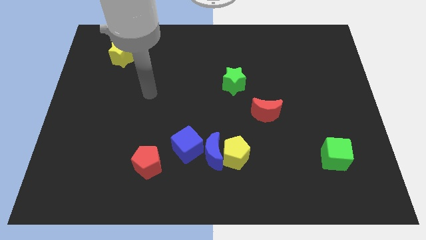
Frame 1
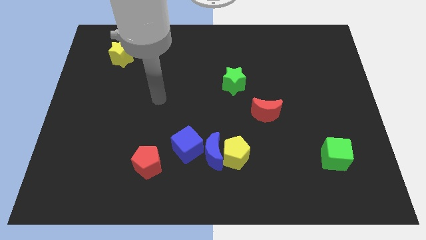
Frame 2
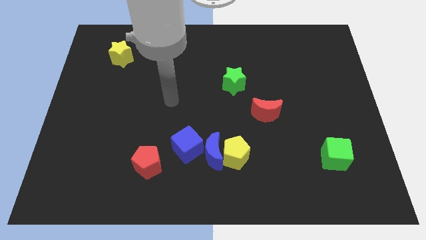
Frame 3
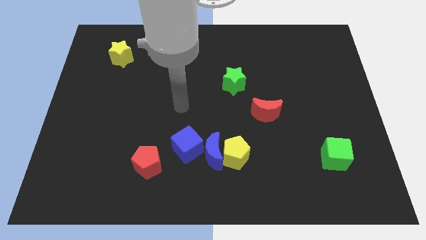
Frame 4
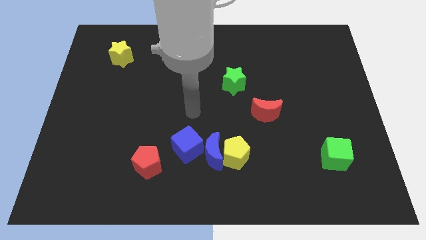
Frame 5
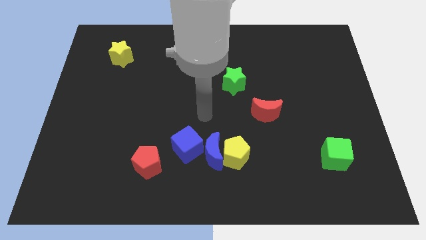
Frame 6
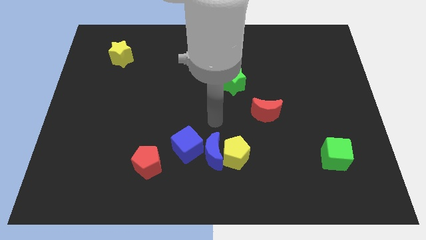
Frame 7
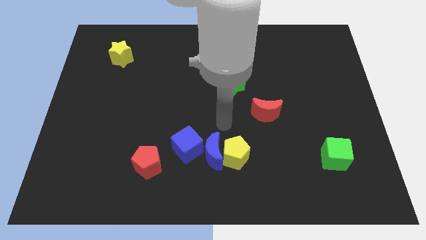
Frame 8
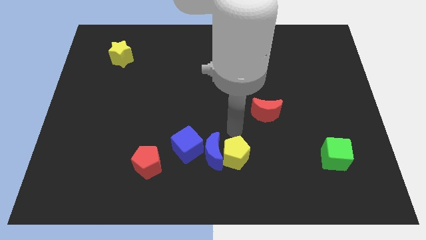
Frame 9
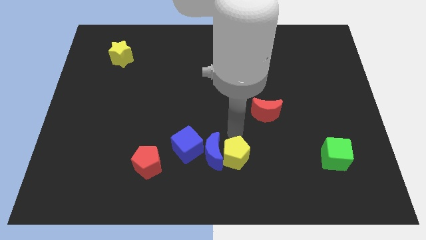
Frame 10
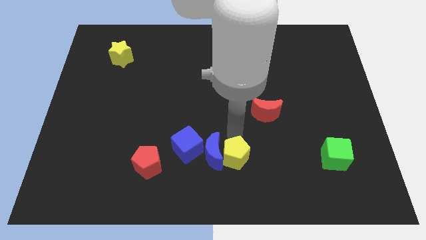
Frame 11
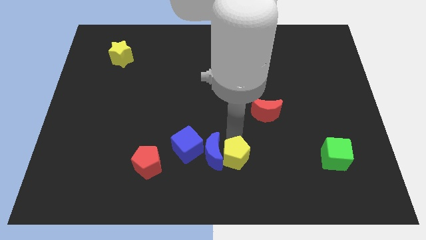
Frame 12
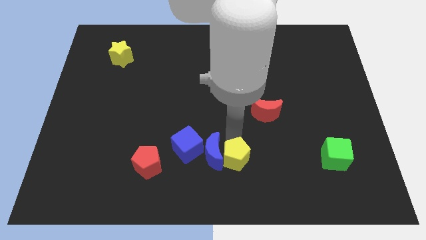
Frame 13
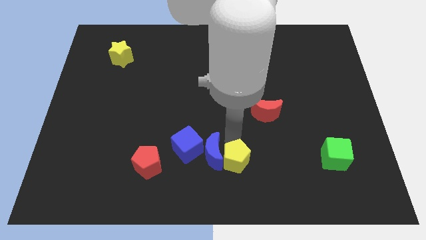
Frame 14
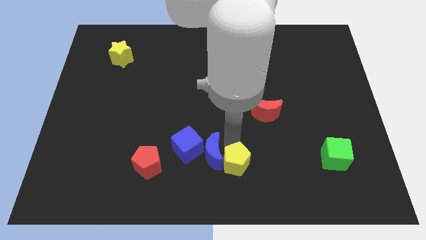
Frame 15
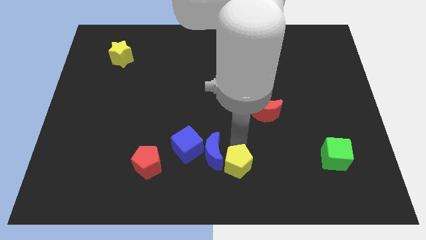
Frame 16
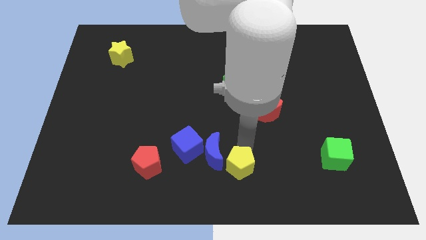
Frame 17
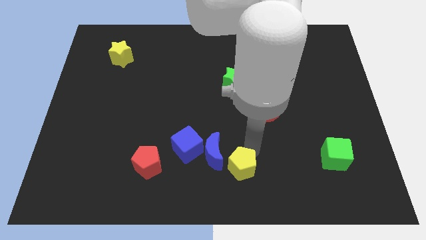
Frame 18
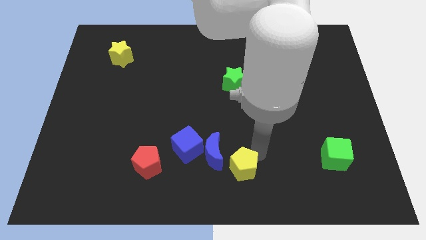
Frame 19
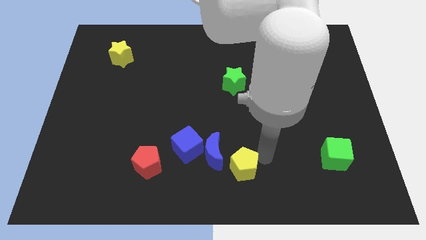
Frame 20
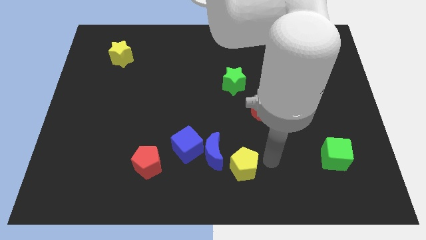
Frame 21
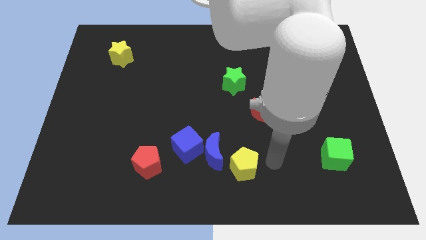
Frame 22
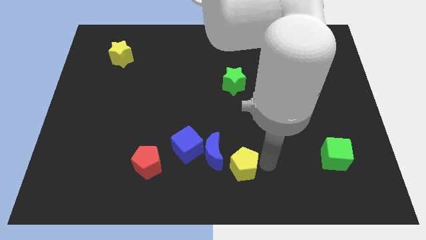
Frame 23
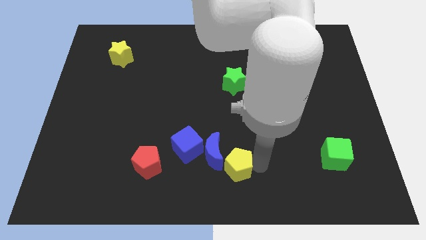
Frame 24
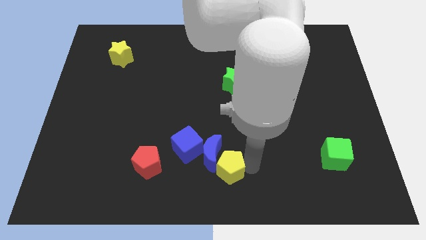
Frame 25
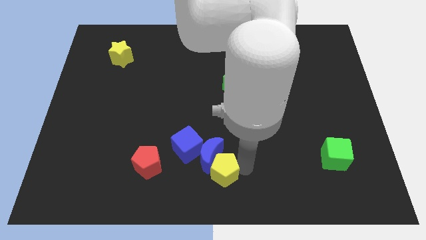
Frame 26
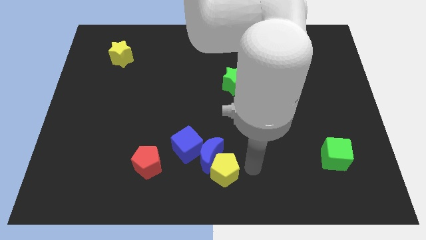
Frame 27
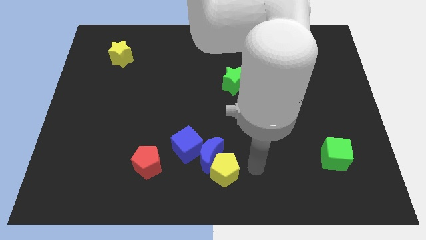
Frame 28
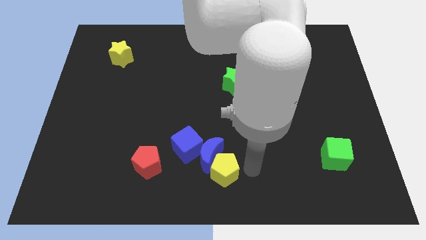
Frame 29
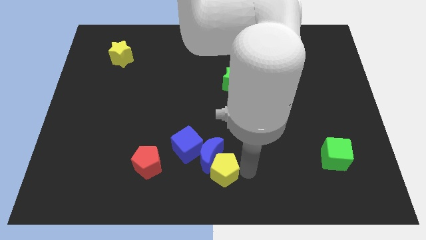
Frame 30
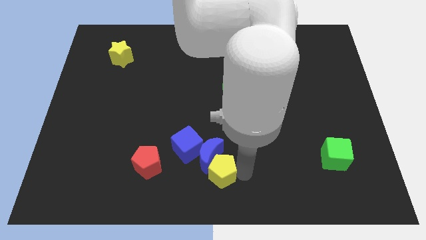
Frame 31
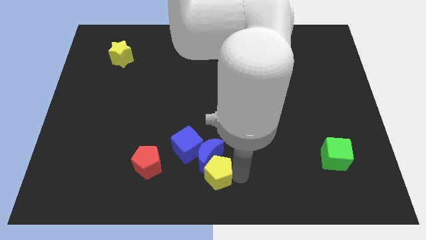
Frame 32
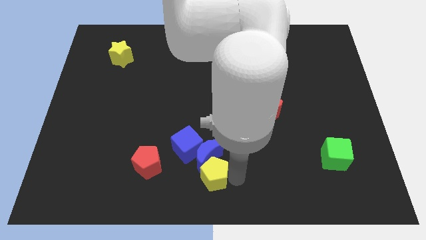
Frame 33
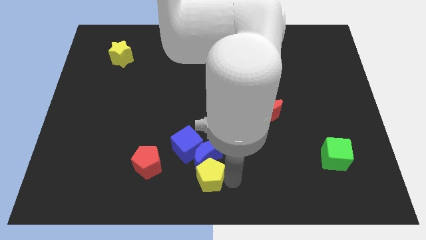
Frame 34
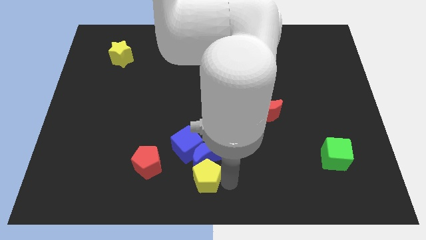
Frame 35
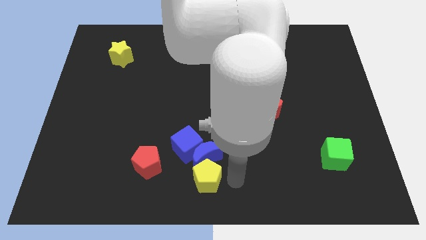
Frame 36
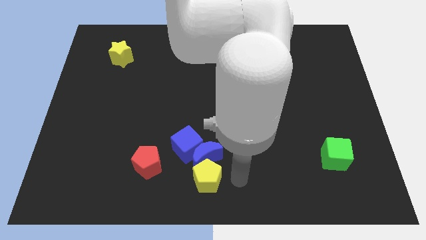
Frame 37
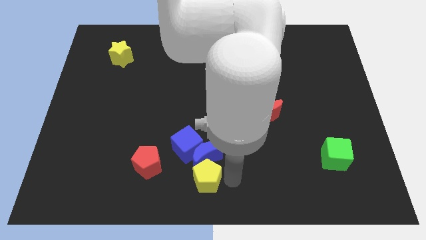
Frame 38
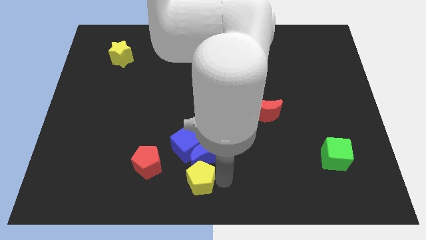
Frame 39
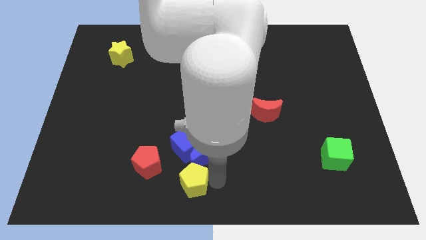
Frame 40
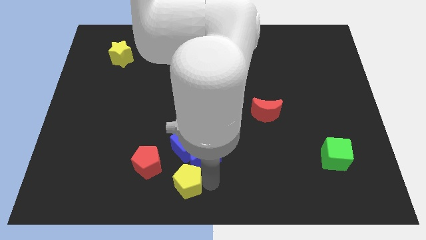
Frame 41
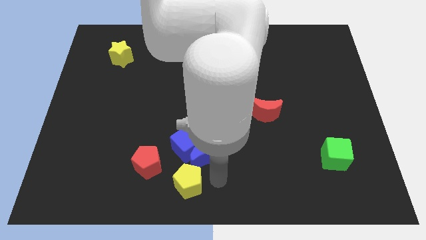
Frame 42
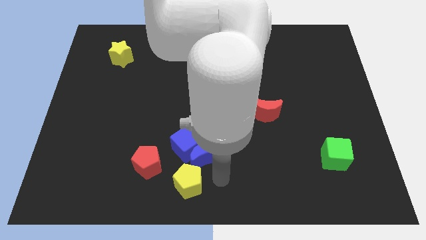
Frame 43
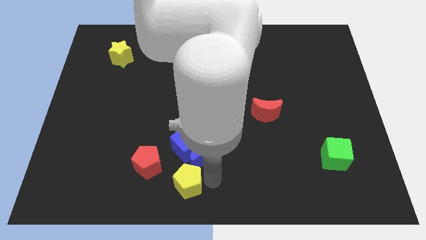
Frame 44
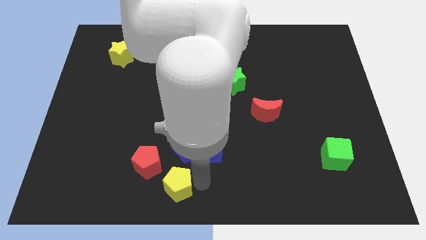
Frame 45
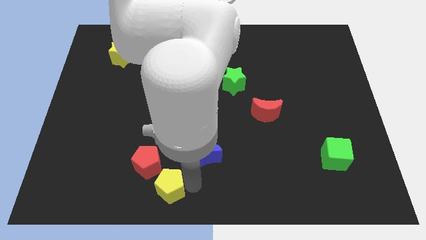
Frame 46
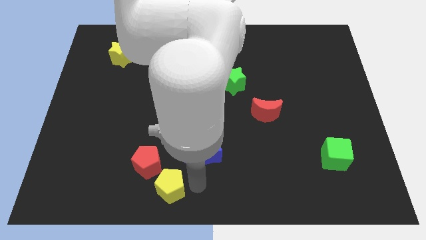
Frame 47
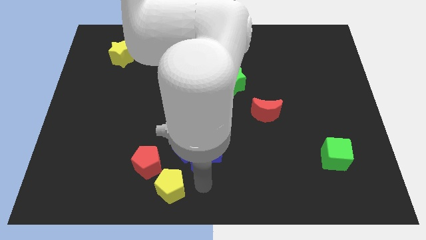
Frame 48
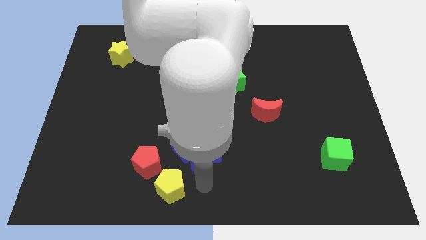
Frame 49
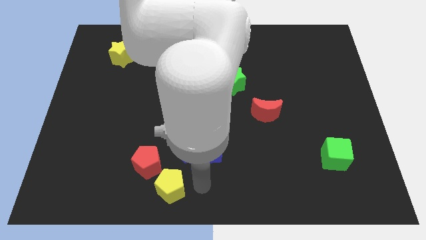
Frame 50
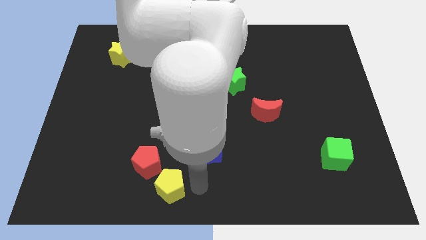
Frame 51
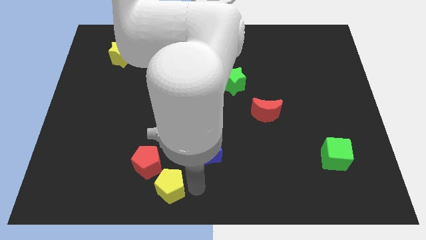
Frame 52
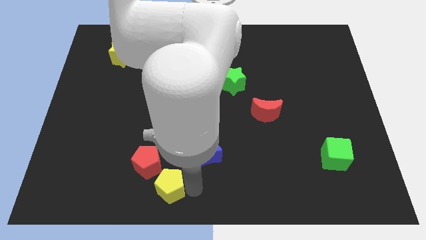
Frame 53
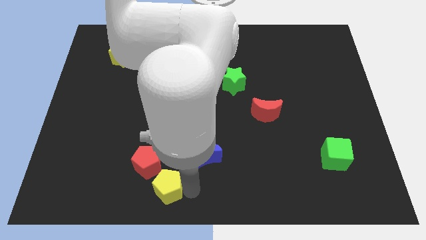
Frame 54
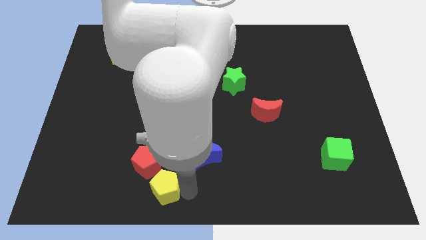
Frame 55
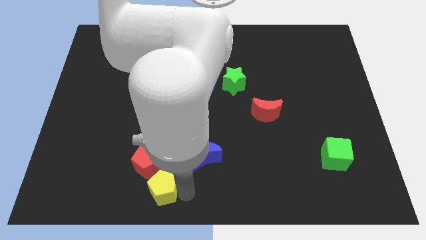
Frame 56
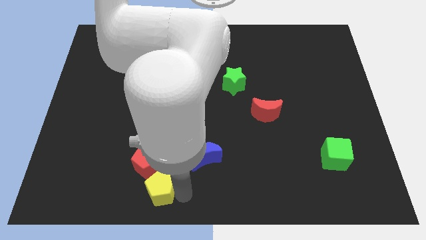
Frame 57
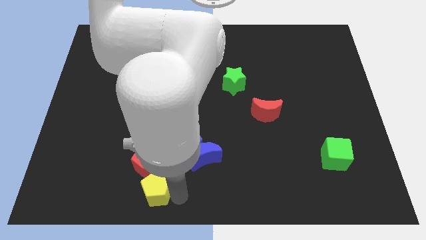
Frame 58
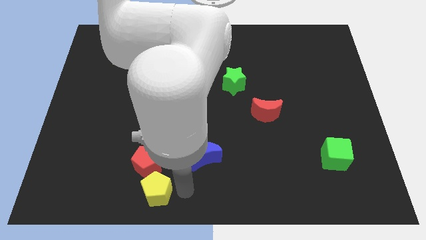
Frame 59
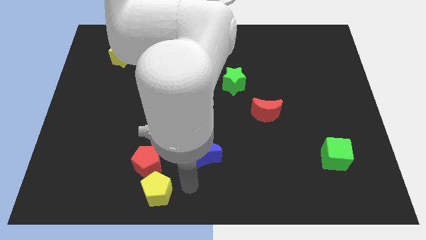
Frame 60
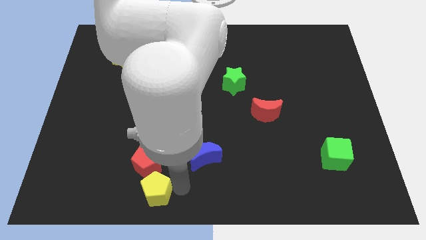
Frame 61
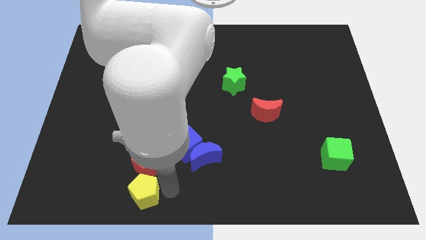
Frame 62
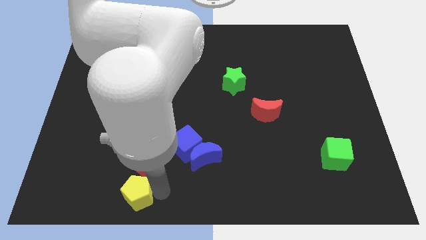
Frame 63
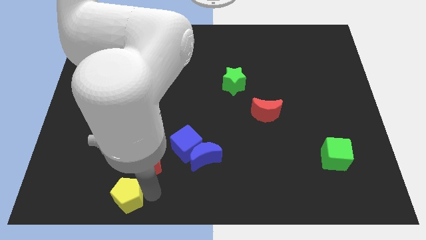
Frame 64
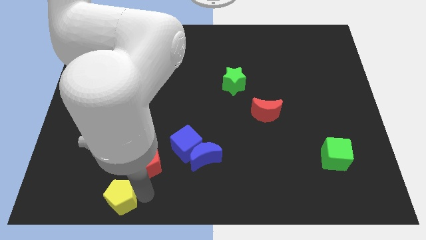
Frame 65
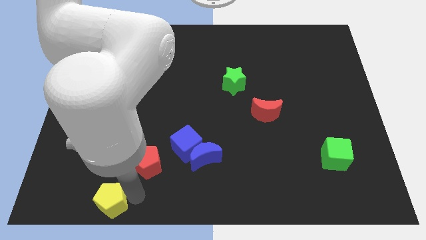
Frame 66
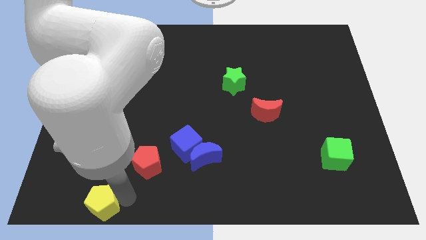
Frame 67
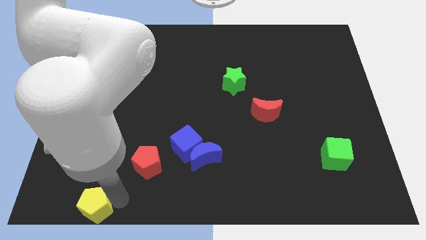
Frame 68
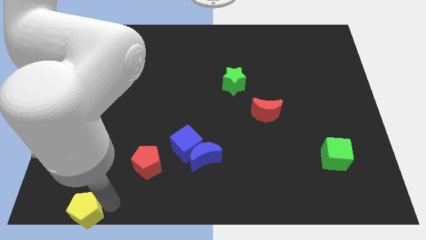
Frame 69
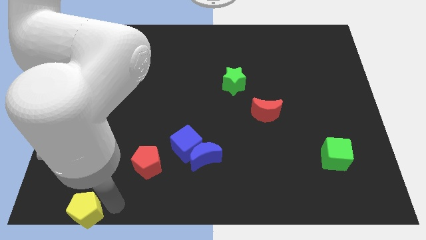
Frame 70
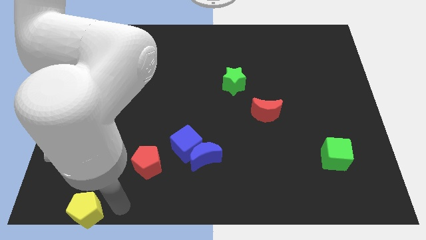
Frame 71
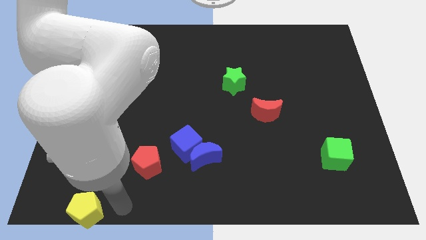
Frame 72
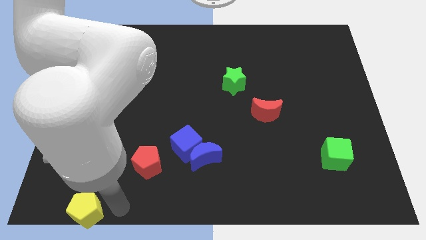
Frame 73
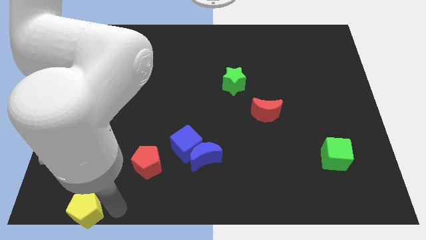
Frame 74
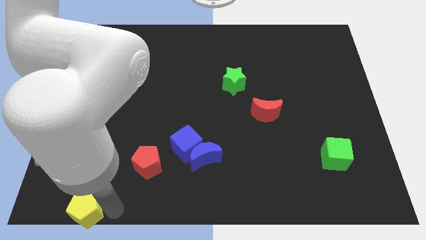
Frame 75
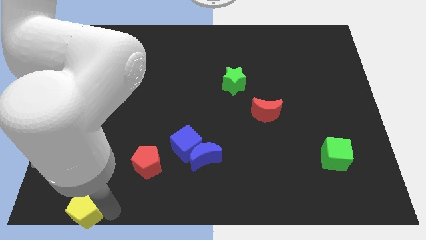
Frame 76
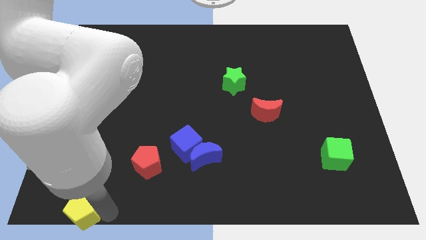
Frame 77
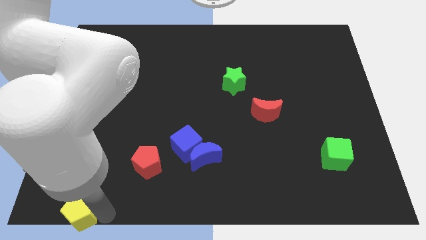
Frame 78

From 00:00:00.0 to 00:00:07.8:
slide the yellow pentagon to the bottom left

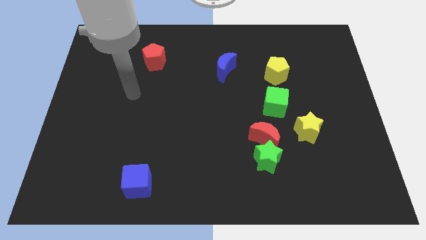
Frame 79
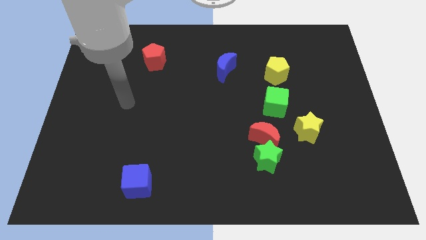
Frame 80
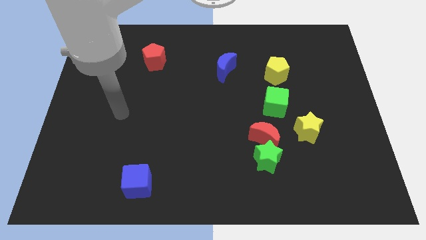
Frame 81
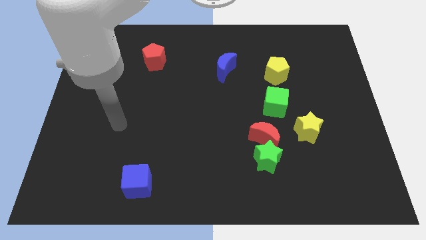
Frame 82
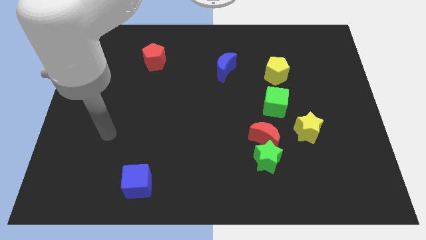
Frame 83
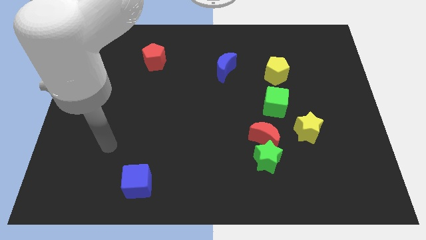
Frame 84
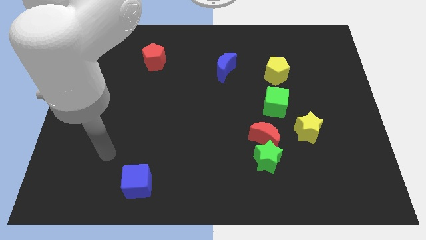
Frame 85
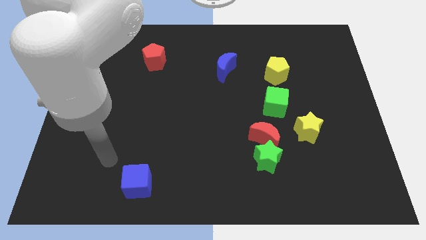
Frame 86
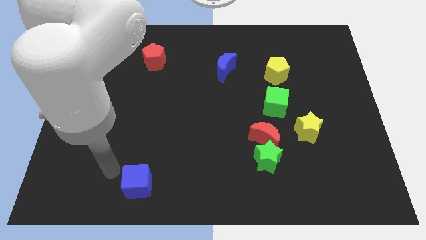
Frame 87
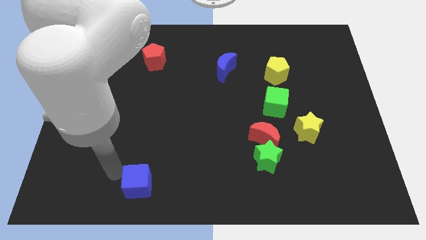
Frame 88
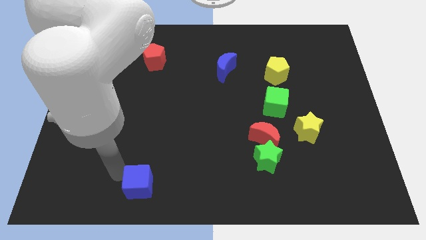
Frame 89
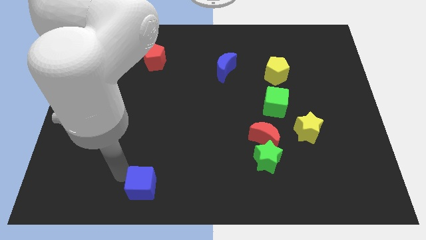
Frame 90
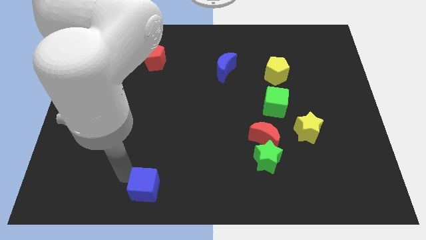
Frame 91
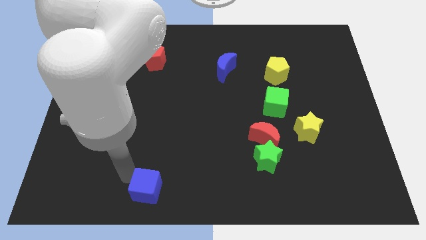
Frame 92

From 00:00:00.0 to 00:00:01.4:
put the blue cube to the bottom
